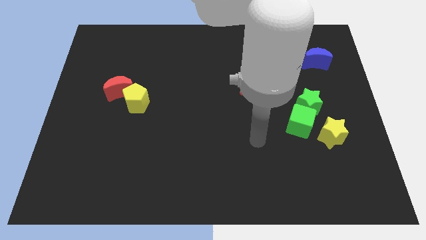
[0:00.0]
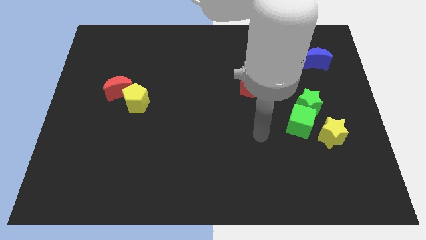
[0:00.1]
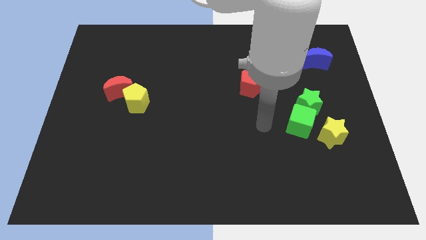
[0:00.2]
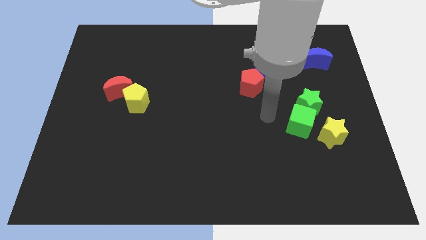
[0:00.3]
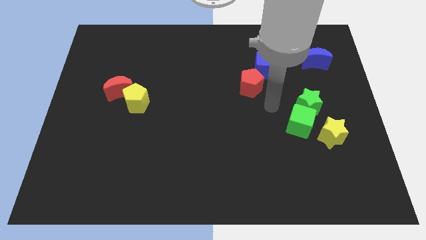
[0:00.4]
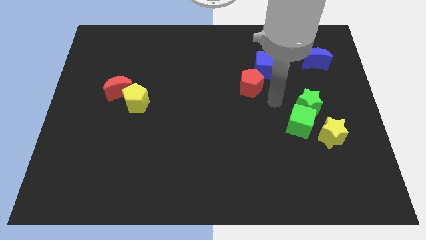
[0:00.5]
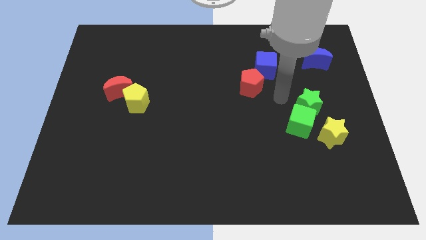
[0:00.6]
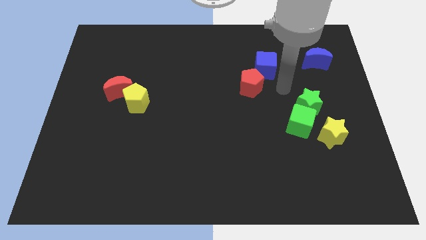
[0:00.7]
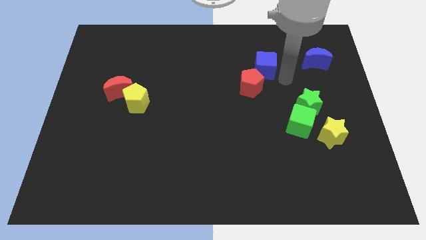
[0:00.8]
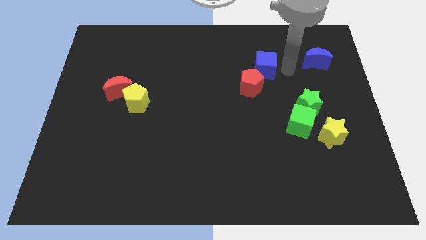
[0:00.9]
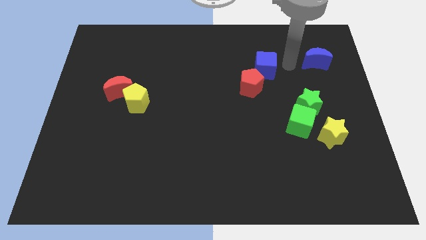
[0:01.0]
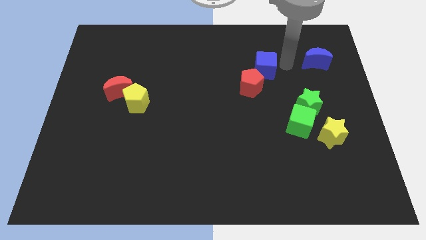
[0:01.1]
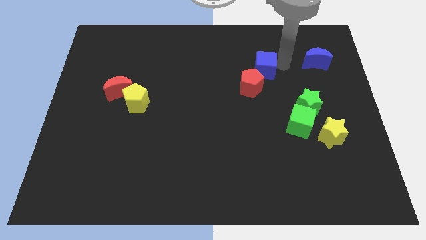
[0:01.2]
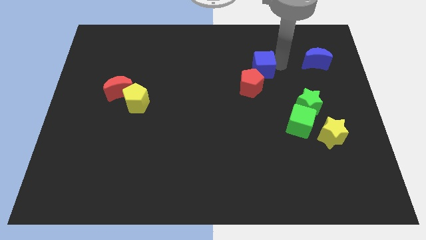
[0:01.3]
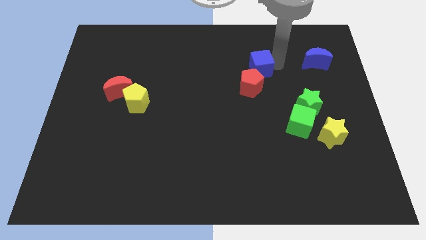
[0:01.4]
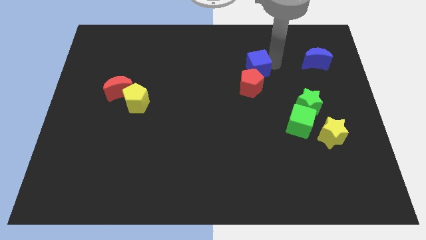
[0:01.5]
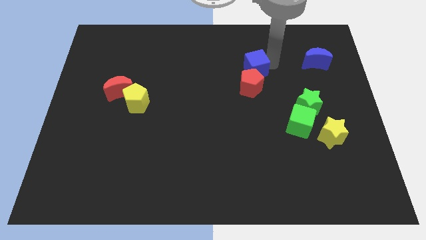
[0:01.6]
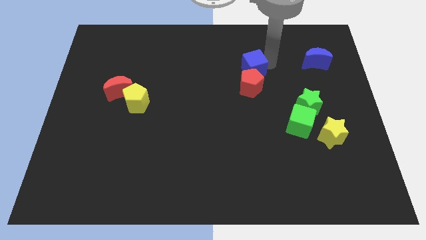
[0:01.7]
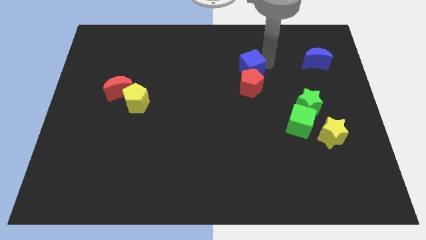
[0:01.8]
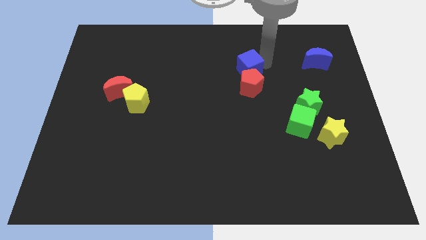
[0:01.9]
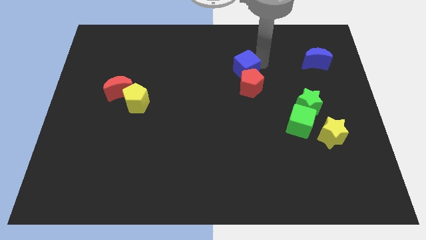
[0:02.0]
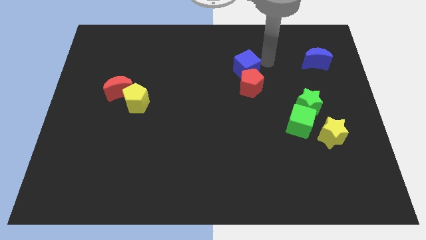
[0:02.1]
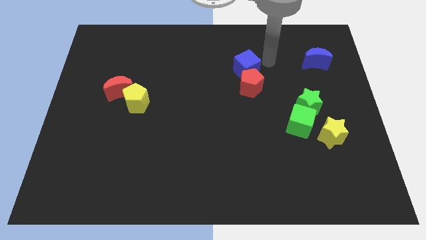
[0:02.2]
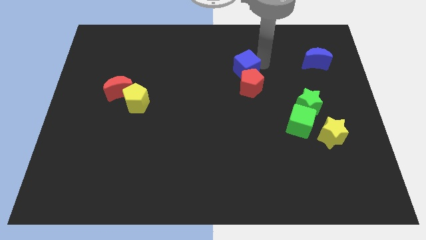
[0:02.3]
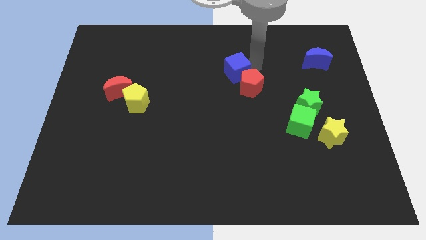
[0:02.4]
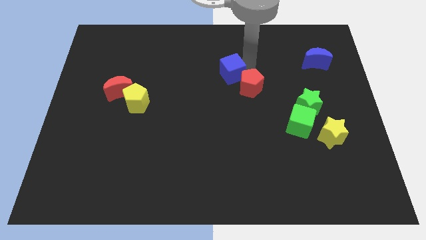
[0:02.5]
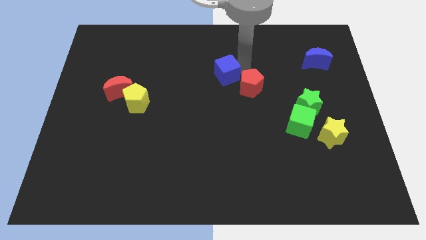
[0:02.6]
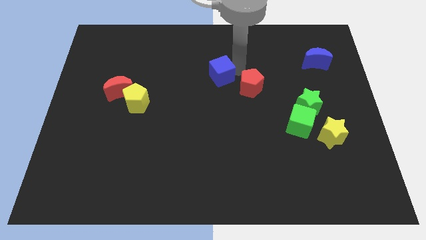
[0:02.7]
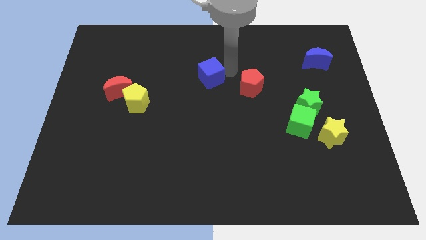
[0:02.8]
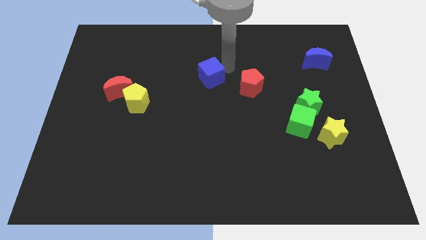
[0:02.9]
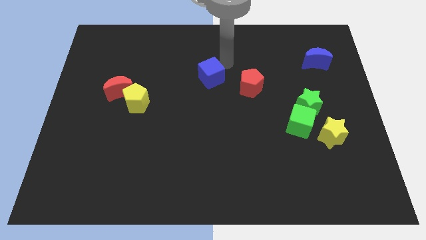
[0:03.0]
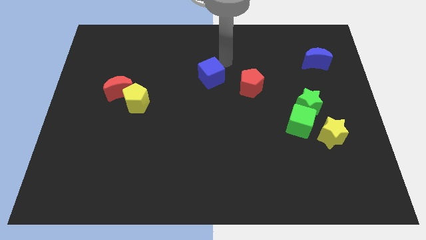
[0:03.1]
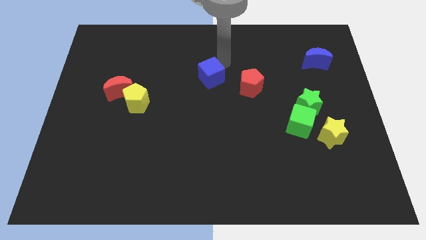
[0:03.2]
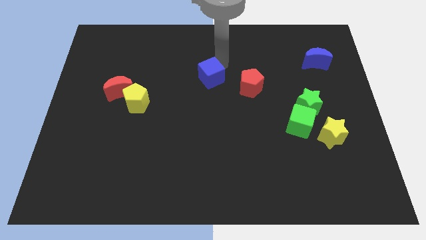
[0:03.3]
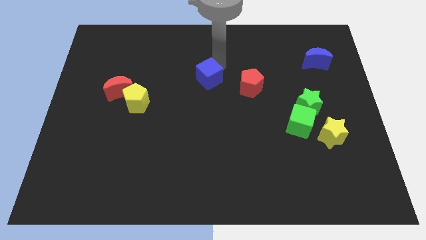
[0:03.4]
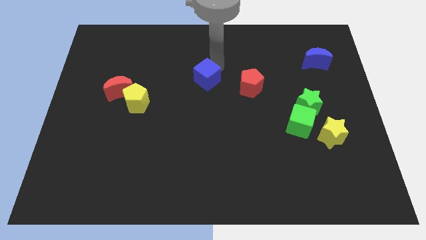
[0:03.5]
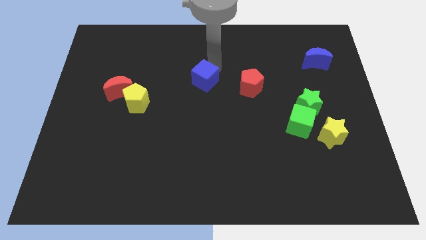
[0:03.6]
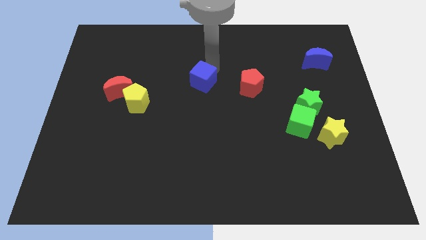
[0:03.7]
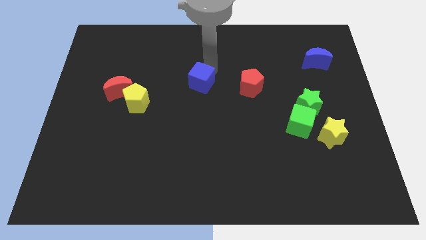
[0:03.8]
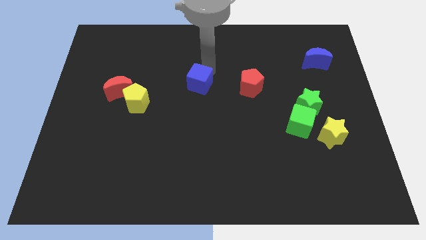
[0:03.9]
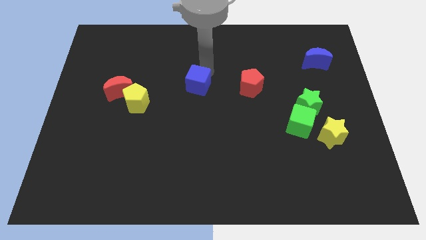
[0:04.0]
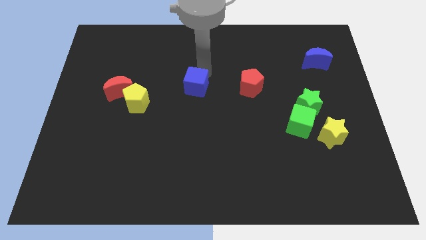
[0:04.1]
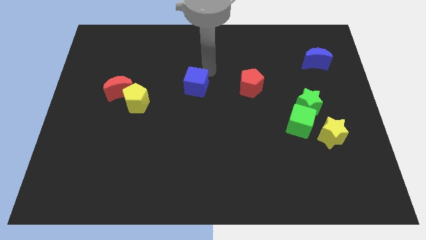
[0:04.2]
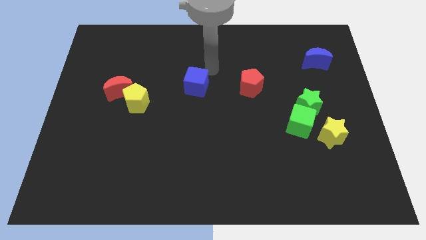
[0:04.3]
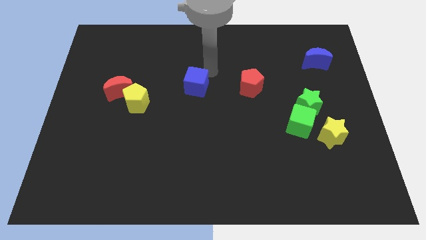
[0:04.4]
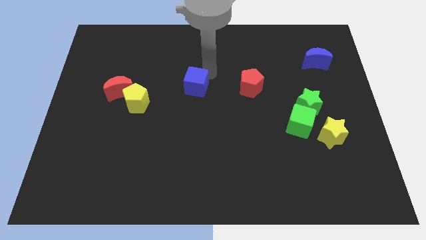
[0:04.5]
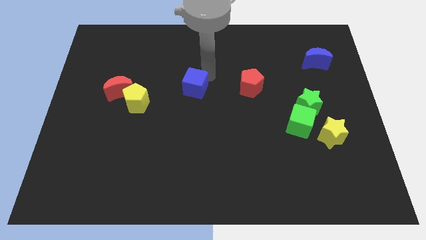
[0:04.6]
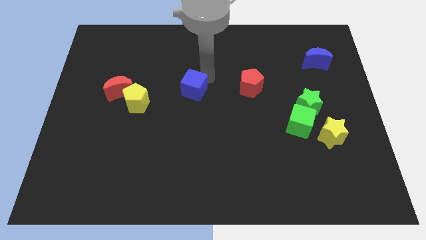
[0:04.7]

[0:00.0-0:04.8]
put the blue cube to the right of the yellow pentagon

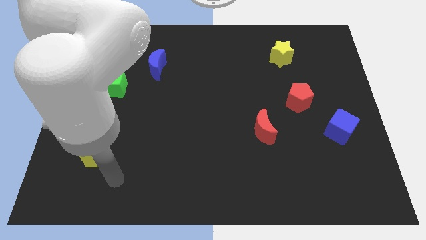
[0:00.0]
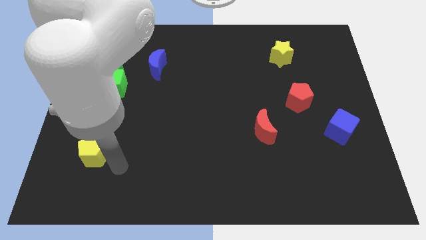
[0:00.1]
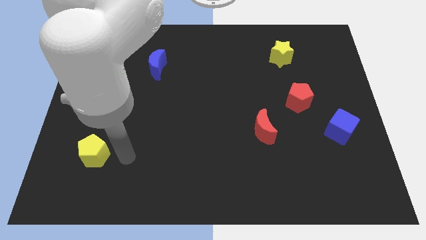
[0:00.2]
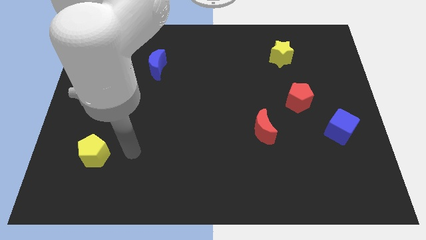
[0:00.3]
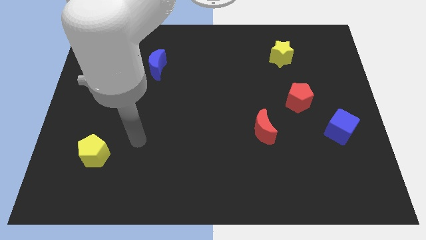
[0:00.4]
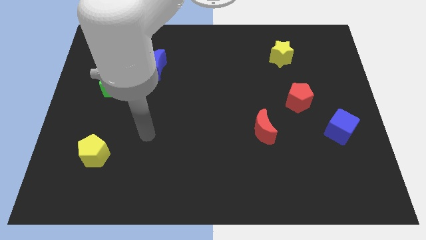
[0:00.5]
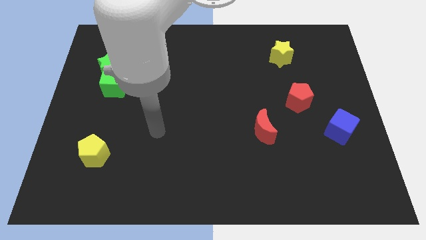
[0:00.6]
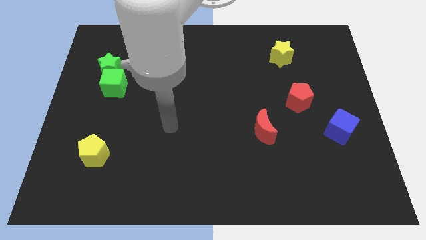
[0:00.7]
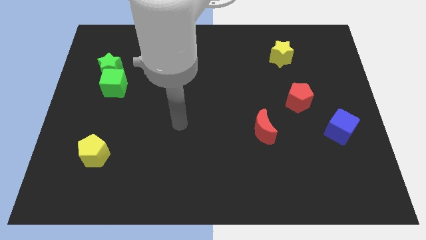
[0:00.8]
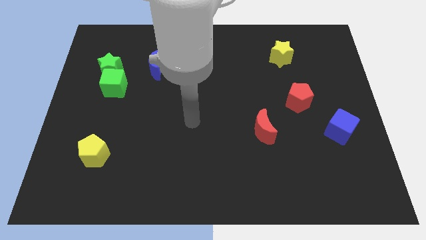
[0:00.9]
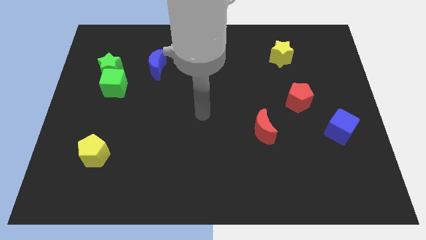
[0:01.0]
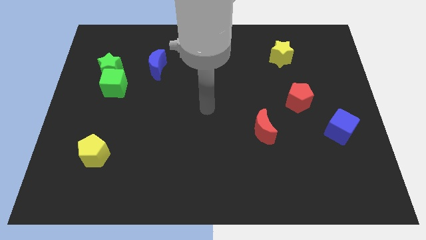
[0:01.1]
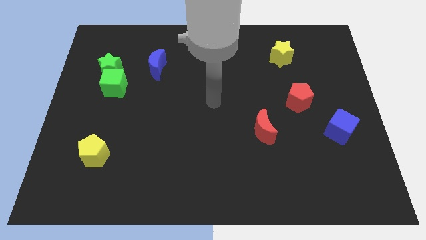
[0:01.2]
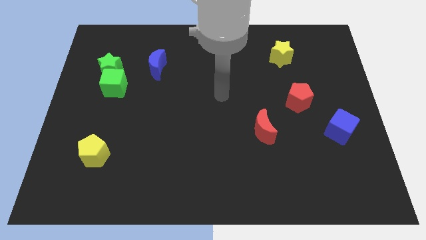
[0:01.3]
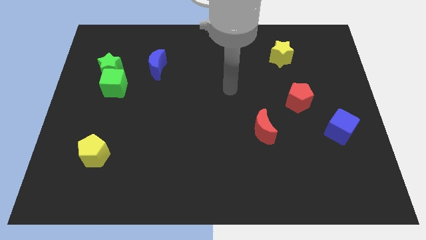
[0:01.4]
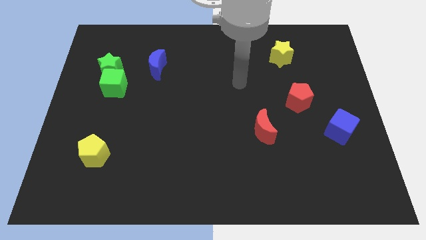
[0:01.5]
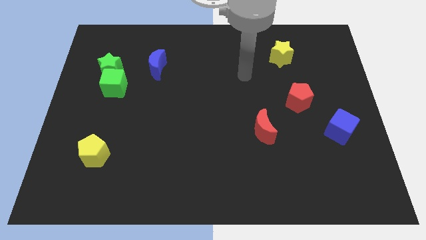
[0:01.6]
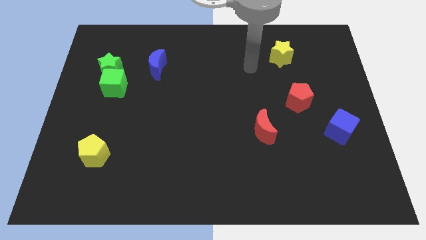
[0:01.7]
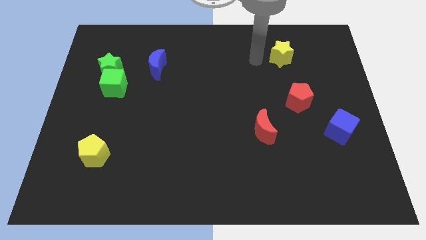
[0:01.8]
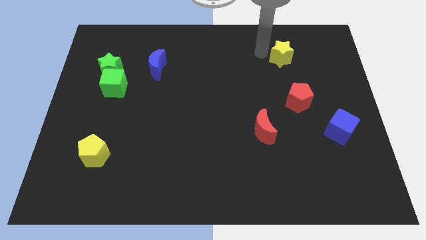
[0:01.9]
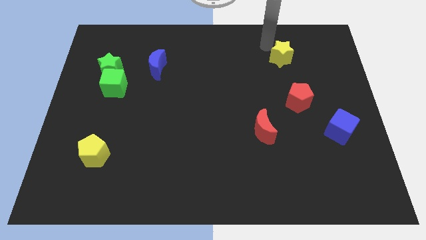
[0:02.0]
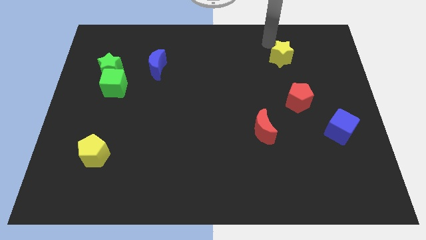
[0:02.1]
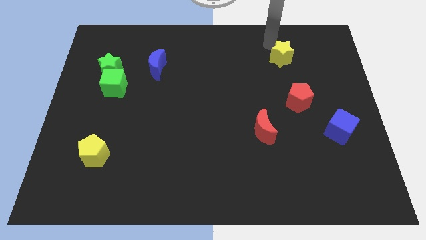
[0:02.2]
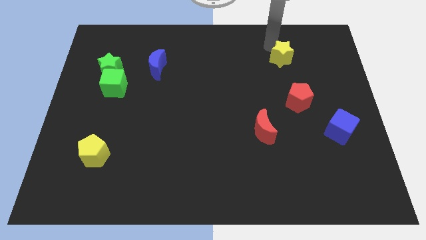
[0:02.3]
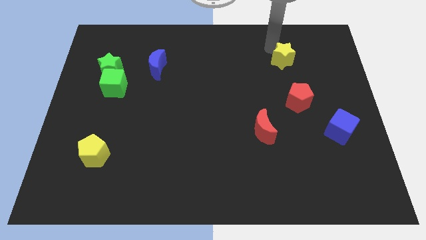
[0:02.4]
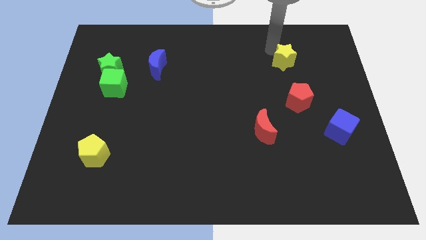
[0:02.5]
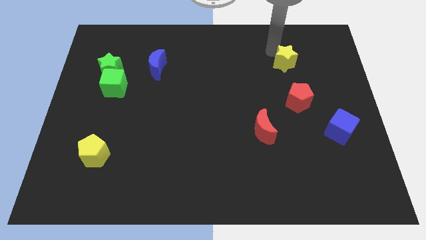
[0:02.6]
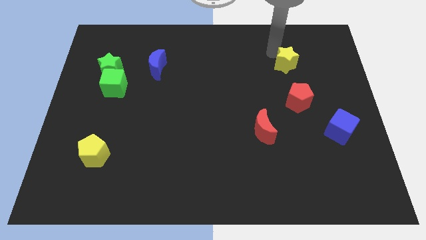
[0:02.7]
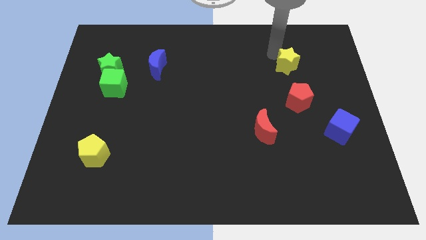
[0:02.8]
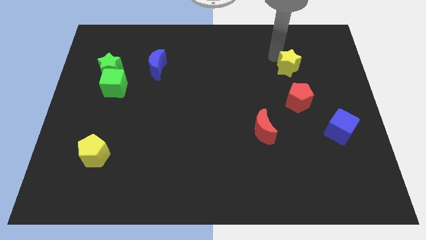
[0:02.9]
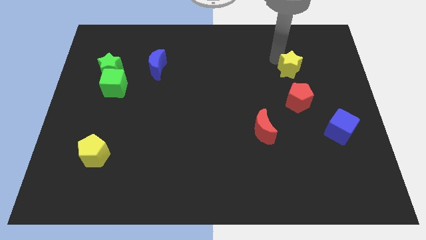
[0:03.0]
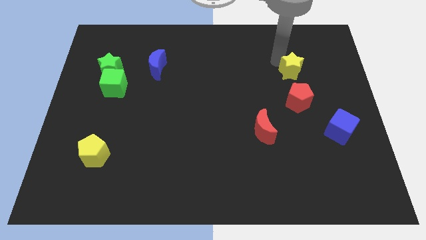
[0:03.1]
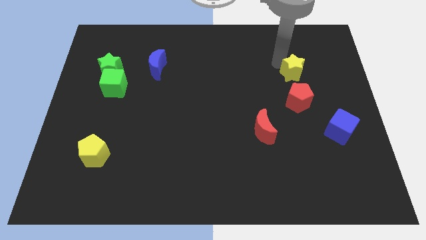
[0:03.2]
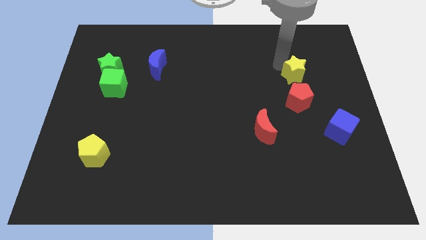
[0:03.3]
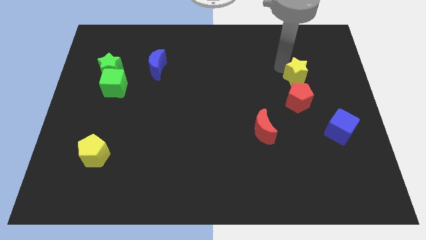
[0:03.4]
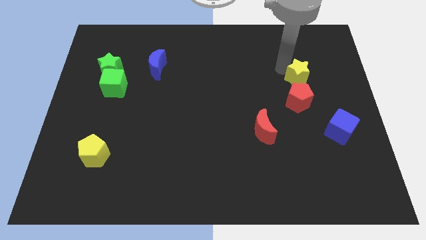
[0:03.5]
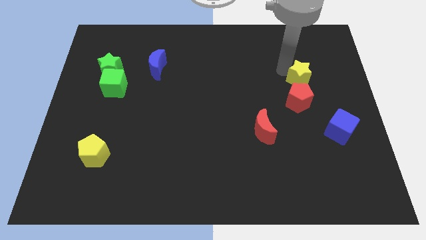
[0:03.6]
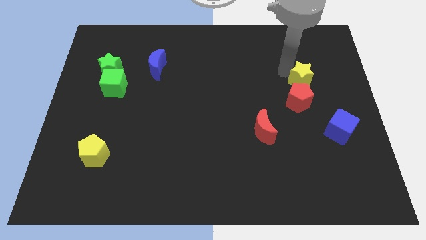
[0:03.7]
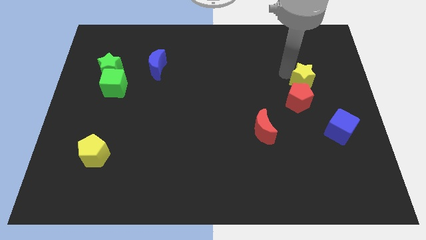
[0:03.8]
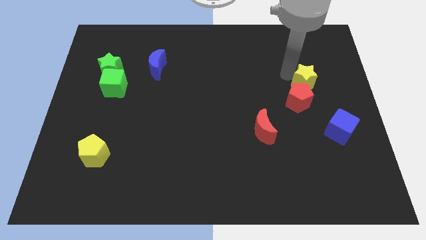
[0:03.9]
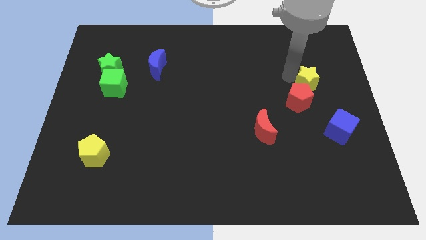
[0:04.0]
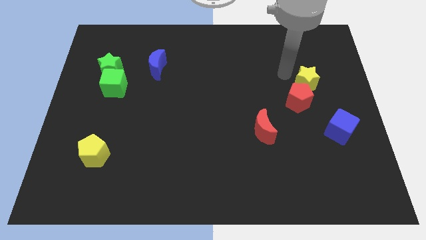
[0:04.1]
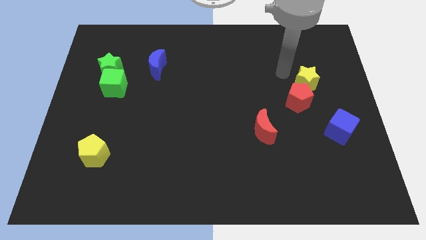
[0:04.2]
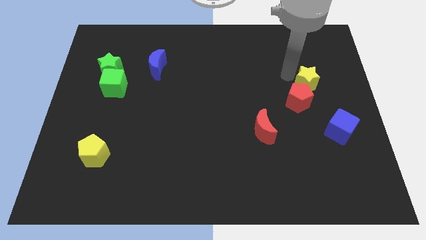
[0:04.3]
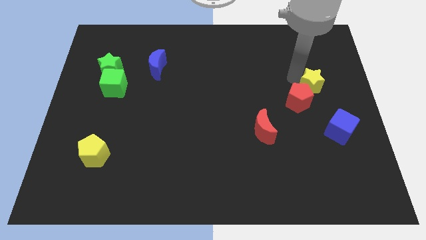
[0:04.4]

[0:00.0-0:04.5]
move the yellow star above the blue cube
